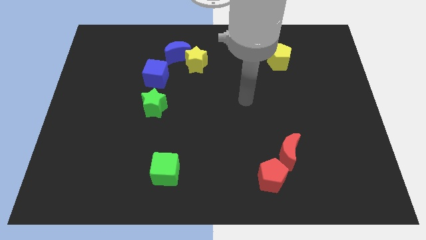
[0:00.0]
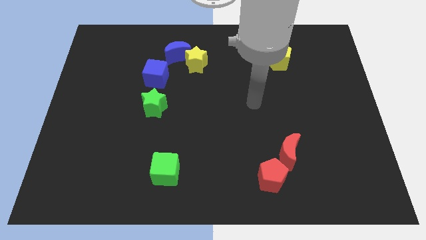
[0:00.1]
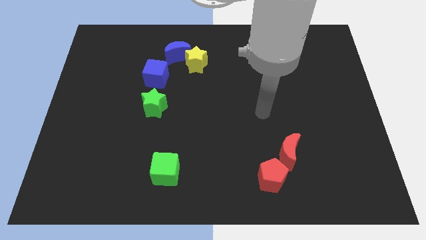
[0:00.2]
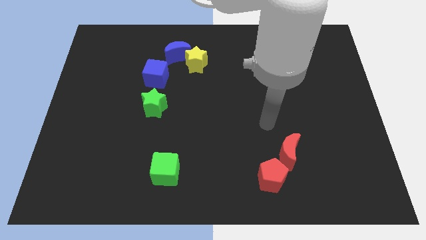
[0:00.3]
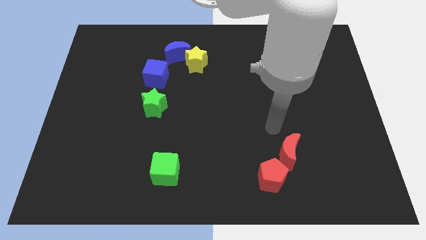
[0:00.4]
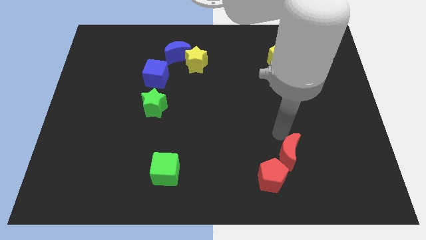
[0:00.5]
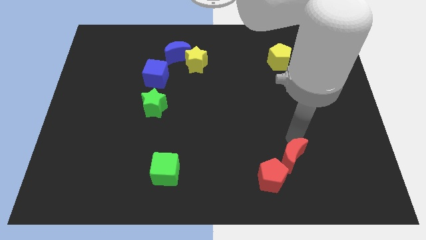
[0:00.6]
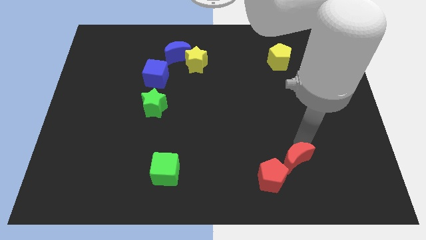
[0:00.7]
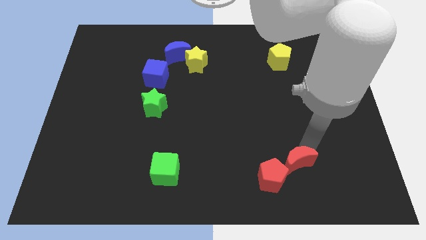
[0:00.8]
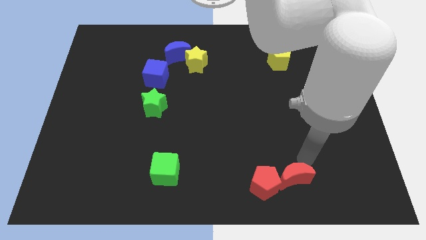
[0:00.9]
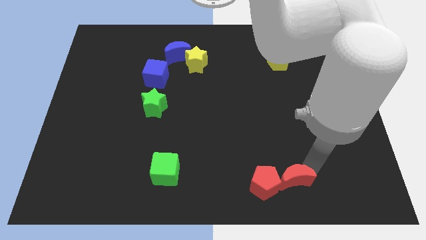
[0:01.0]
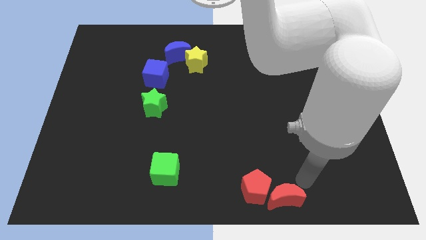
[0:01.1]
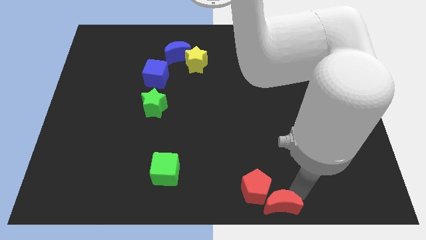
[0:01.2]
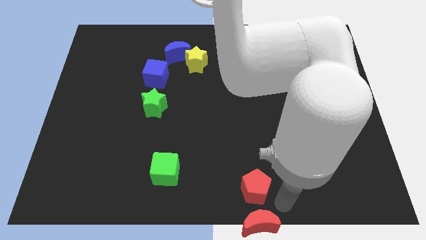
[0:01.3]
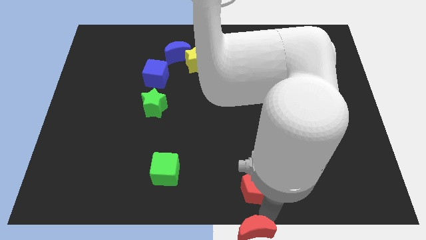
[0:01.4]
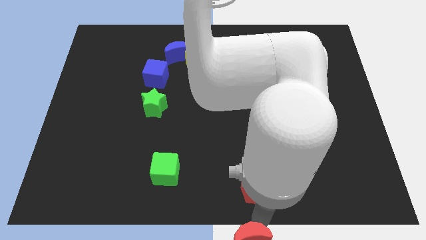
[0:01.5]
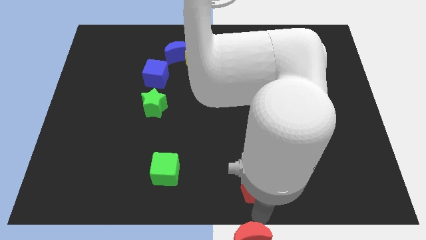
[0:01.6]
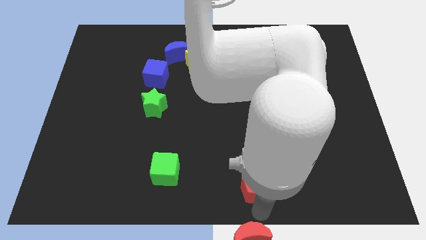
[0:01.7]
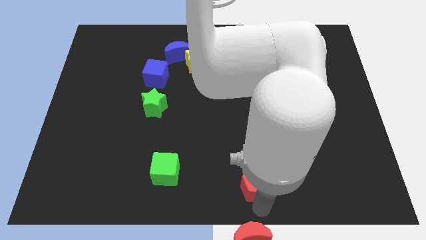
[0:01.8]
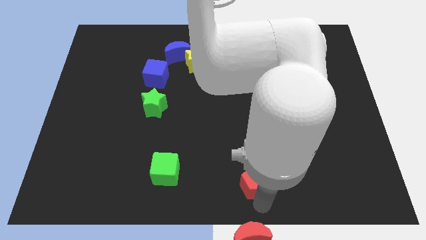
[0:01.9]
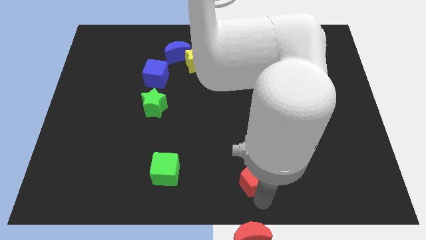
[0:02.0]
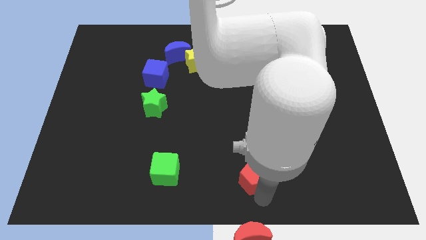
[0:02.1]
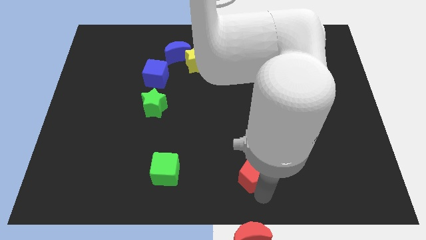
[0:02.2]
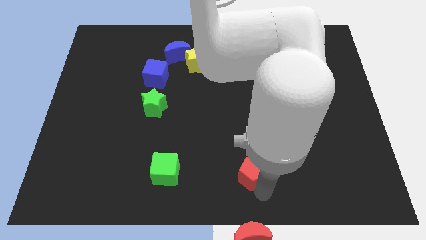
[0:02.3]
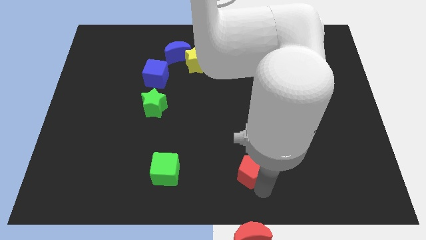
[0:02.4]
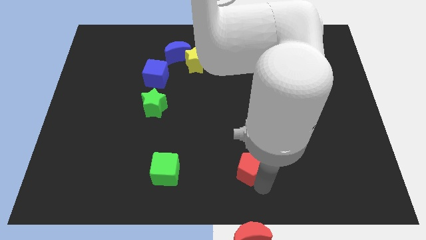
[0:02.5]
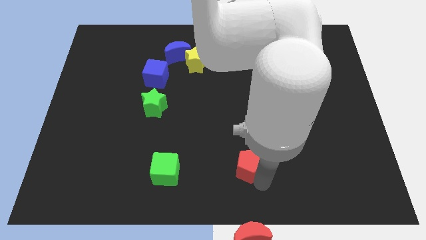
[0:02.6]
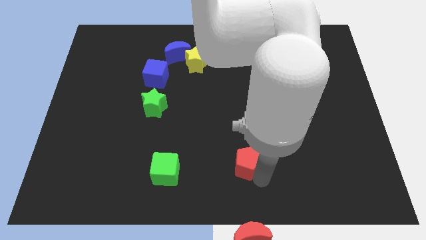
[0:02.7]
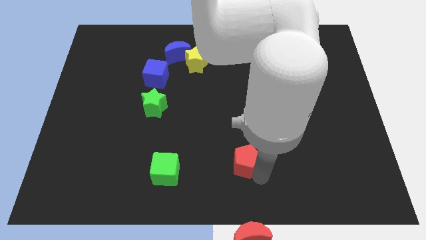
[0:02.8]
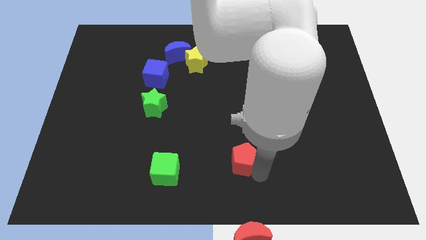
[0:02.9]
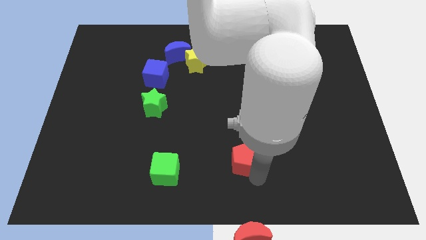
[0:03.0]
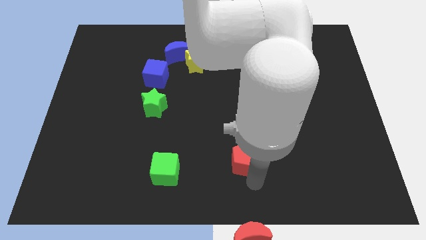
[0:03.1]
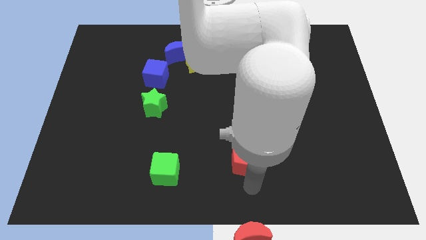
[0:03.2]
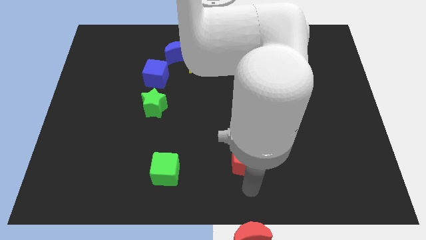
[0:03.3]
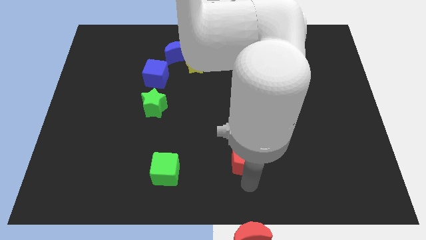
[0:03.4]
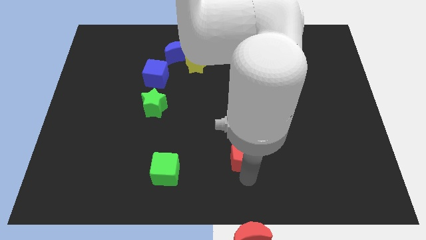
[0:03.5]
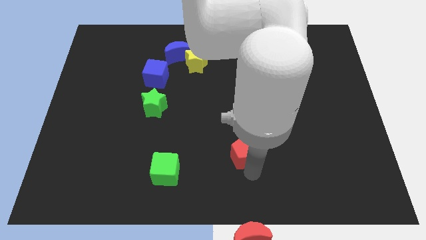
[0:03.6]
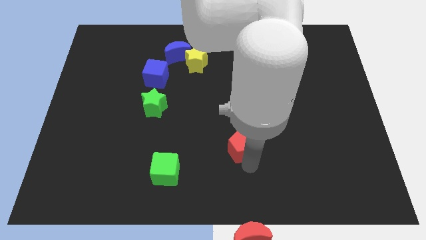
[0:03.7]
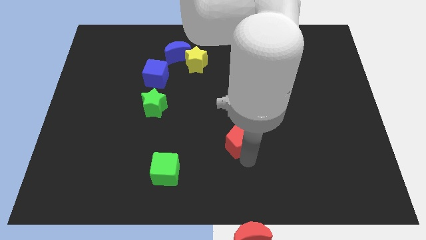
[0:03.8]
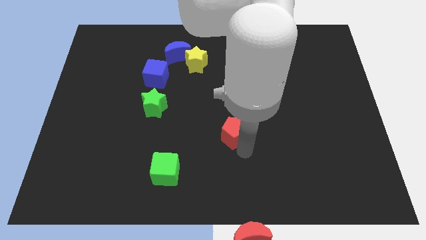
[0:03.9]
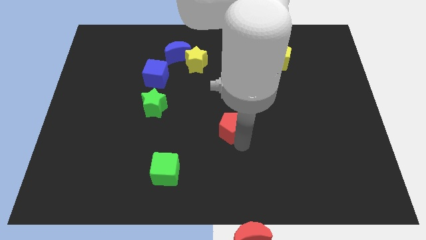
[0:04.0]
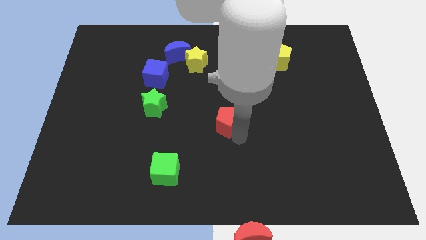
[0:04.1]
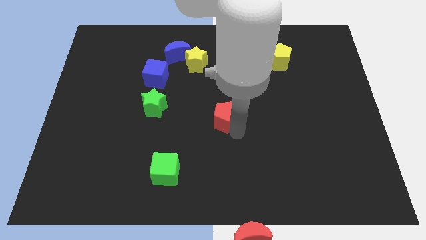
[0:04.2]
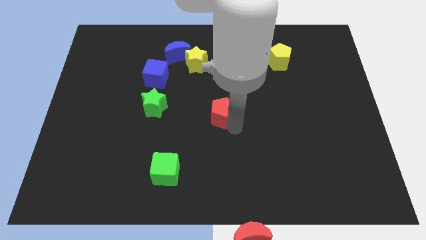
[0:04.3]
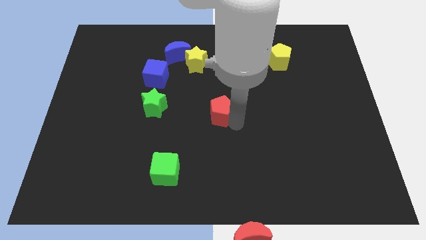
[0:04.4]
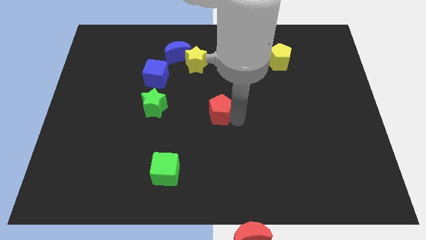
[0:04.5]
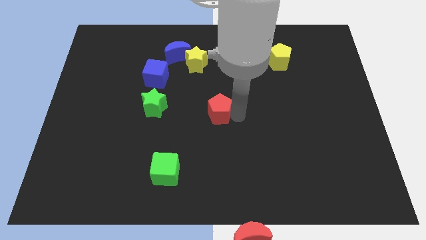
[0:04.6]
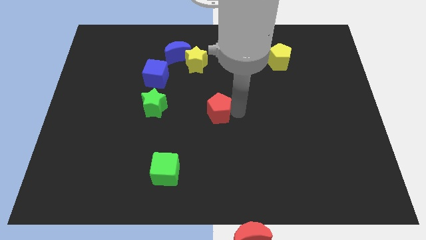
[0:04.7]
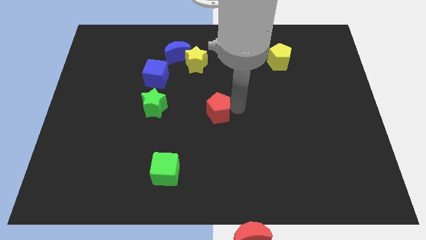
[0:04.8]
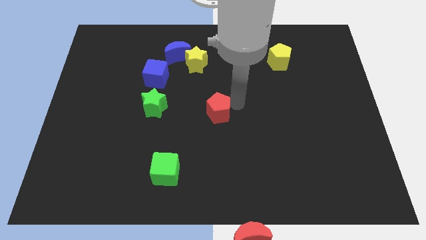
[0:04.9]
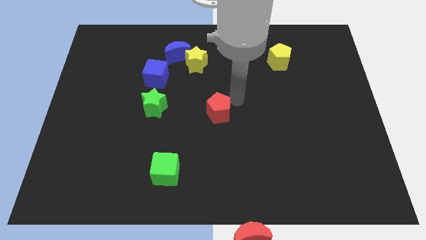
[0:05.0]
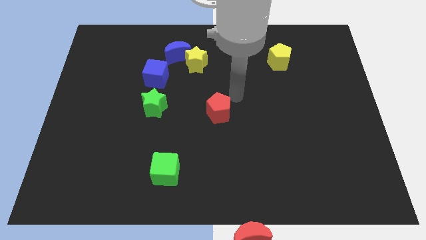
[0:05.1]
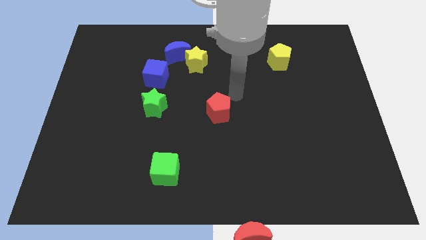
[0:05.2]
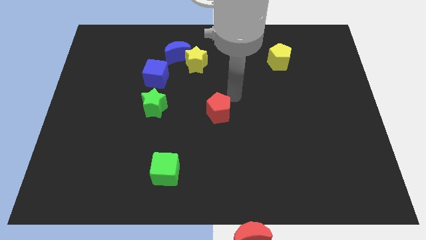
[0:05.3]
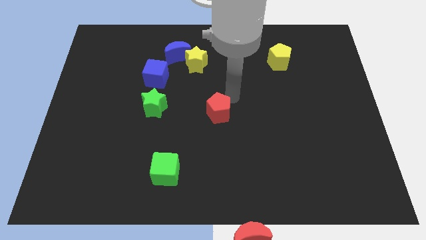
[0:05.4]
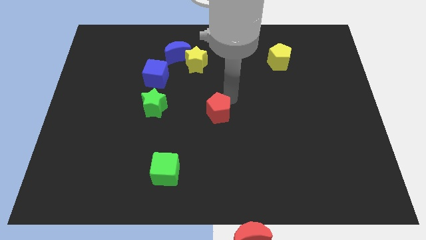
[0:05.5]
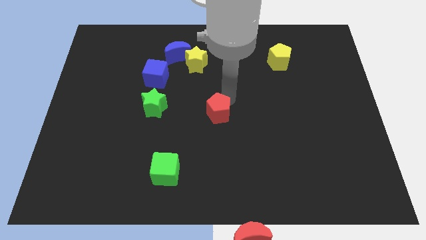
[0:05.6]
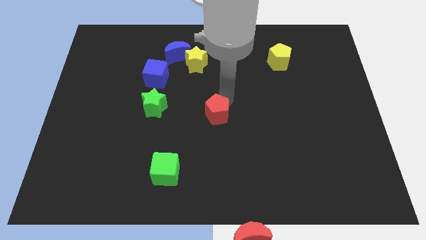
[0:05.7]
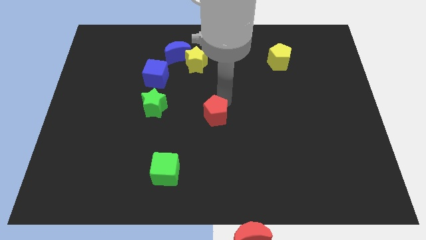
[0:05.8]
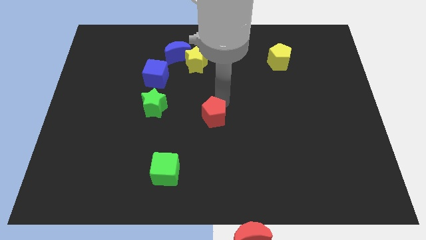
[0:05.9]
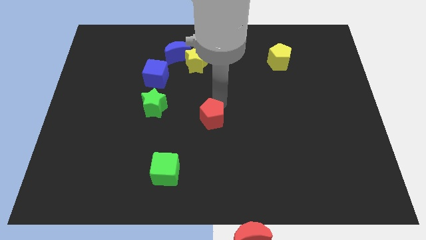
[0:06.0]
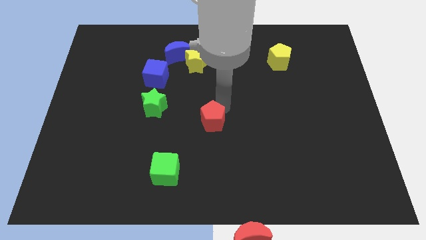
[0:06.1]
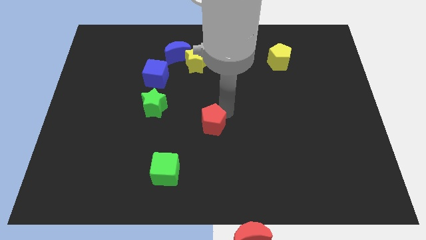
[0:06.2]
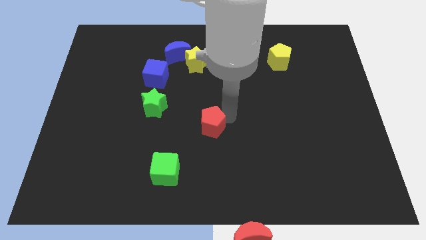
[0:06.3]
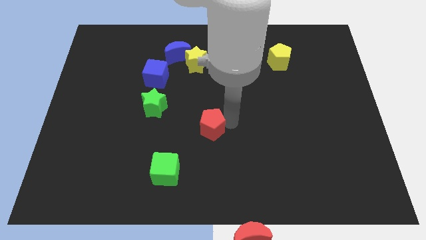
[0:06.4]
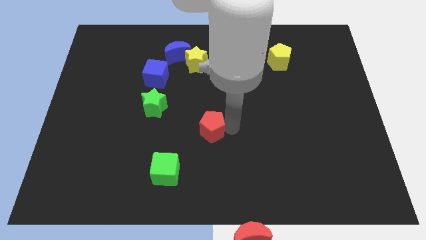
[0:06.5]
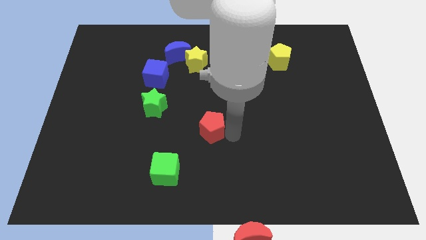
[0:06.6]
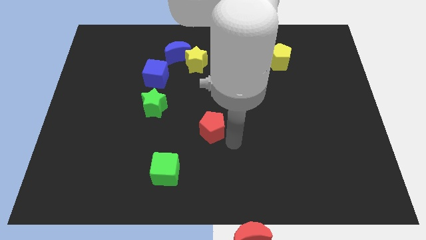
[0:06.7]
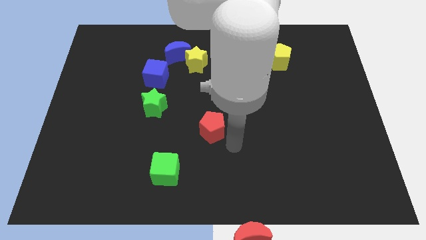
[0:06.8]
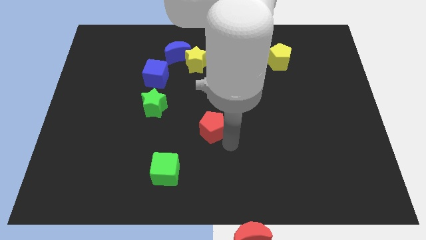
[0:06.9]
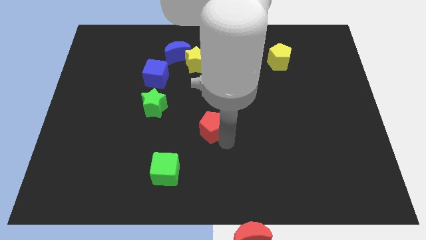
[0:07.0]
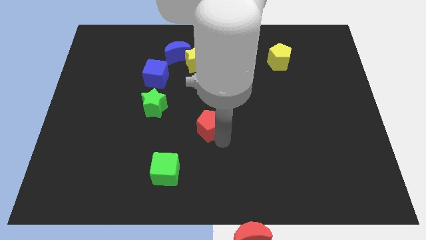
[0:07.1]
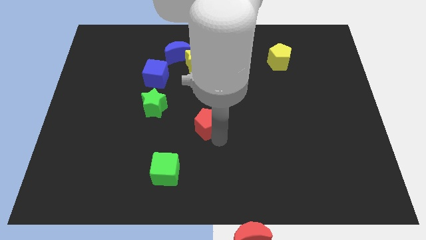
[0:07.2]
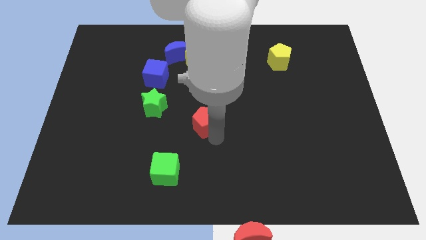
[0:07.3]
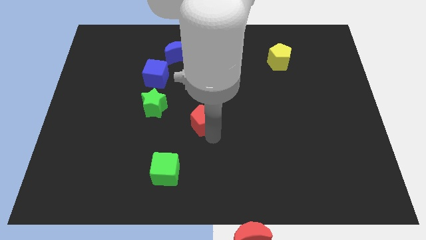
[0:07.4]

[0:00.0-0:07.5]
move the red pentagon upwards and to the left diagonally

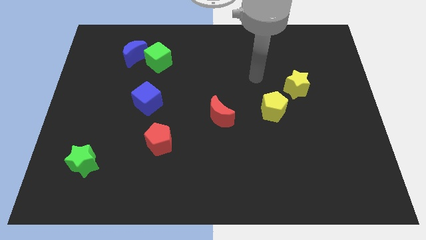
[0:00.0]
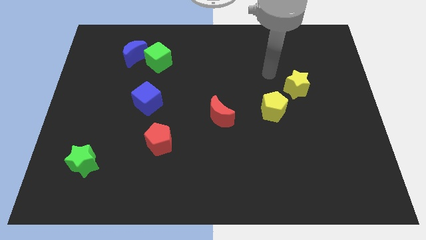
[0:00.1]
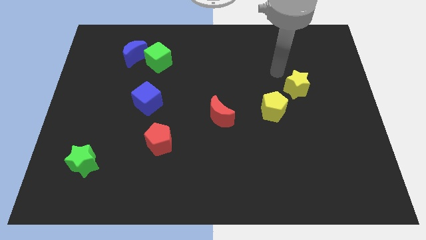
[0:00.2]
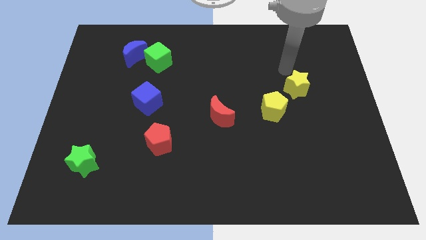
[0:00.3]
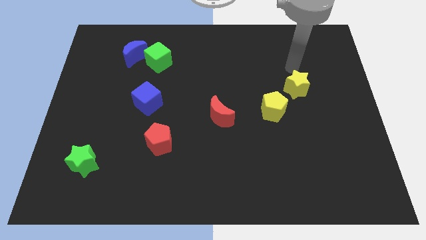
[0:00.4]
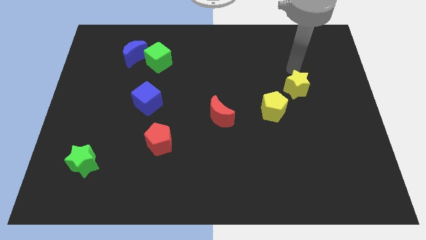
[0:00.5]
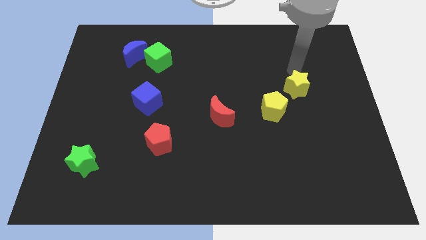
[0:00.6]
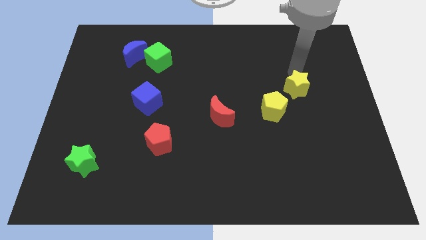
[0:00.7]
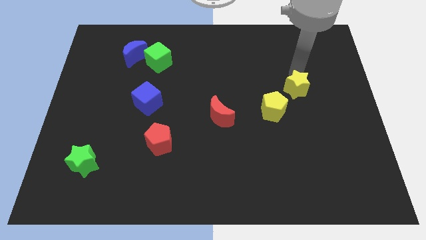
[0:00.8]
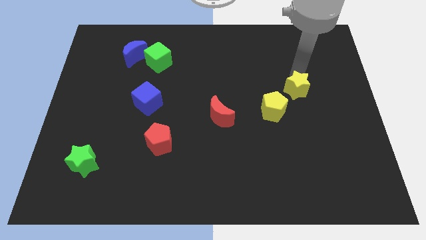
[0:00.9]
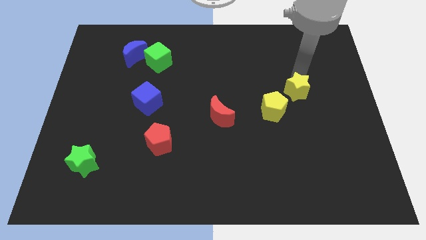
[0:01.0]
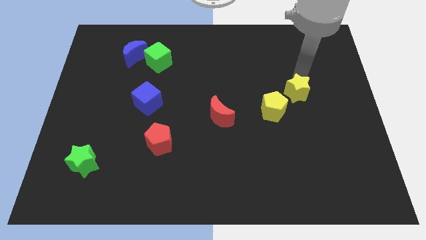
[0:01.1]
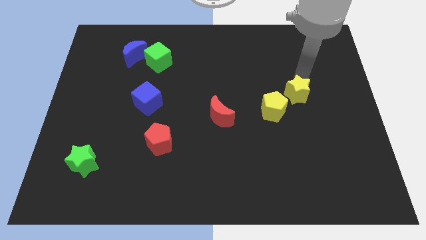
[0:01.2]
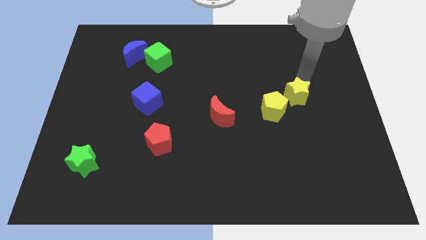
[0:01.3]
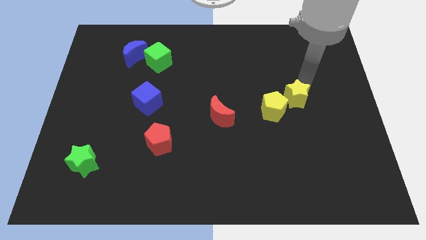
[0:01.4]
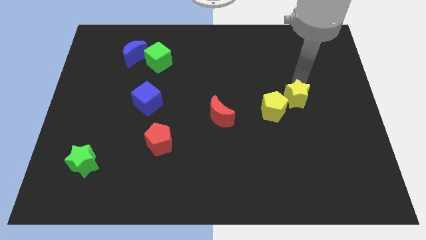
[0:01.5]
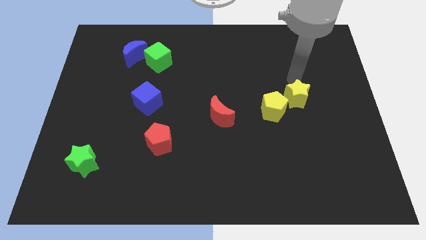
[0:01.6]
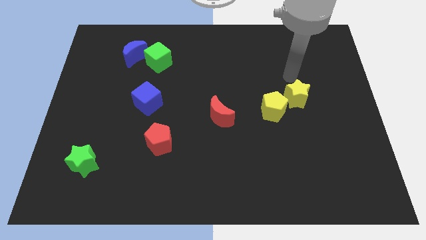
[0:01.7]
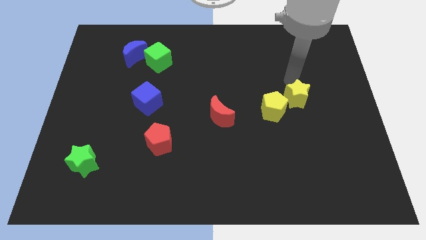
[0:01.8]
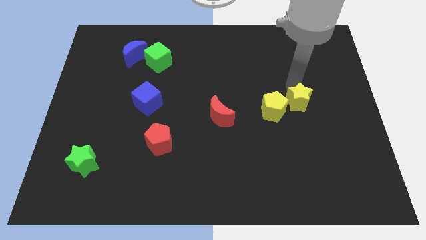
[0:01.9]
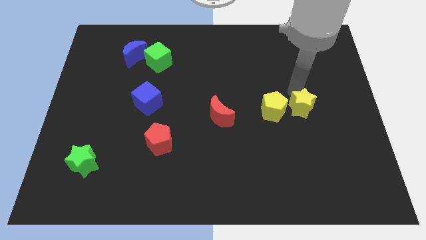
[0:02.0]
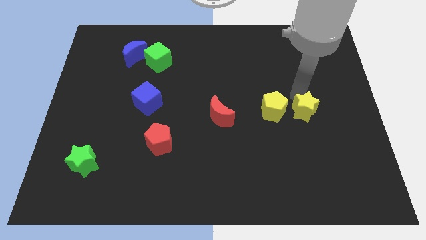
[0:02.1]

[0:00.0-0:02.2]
push the yellow star down somewhat
